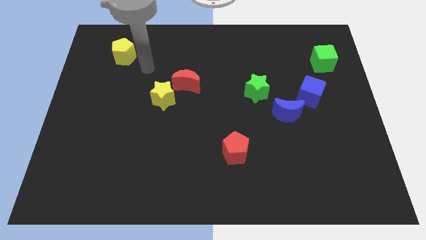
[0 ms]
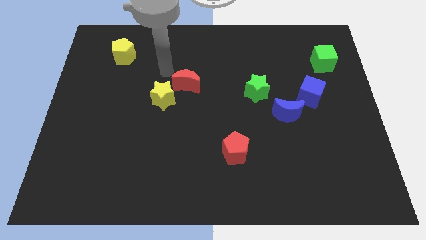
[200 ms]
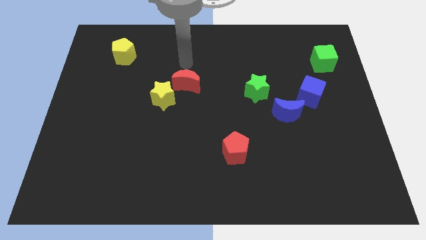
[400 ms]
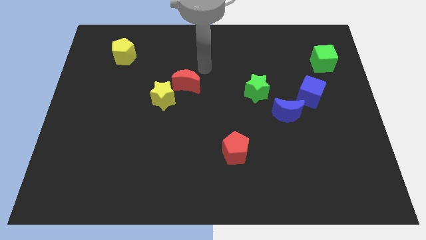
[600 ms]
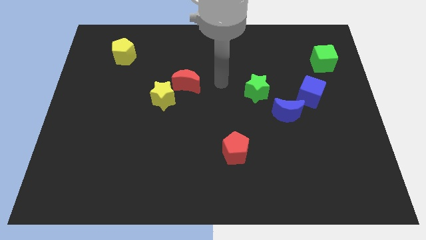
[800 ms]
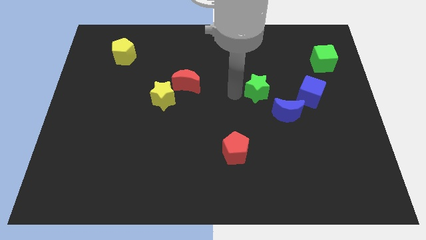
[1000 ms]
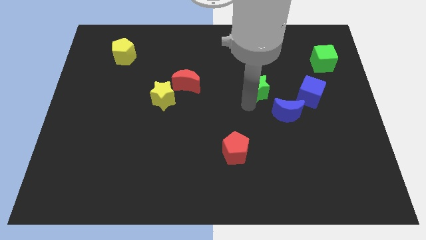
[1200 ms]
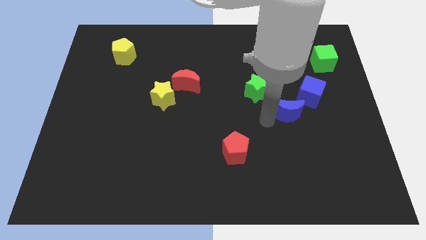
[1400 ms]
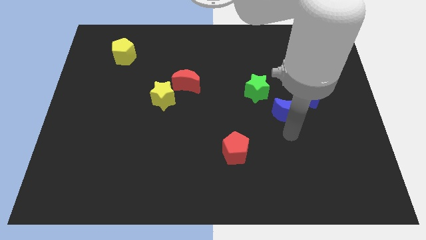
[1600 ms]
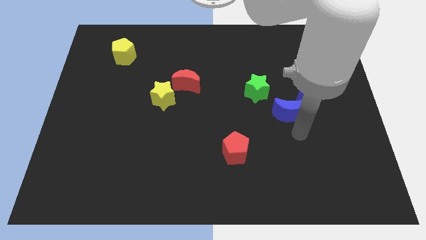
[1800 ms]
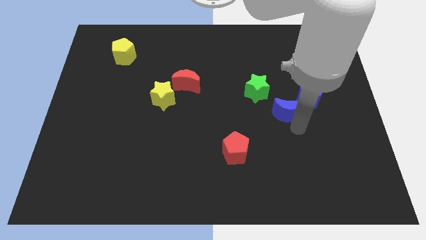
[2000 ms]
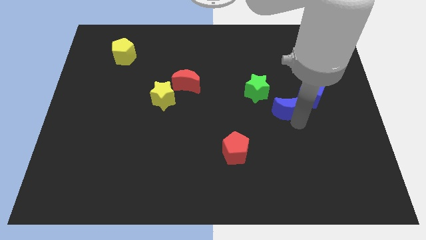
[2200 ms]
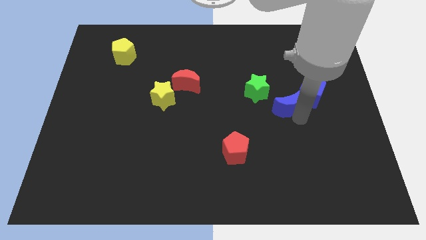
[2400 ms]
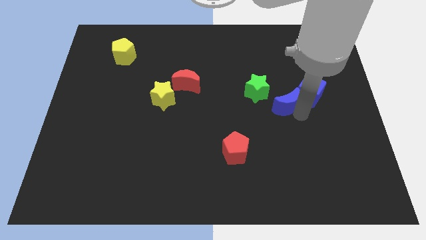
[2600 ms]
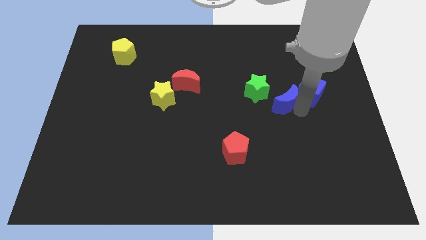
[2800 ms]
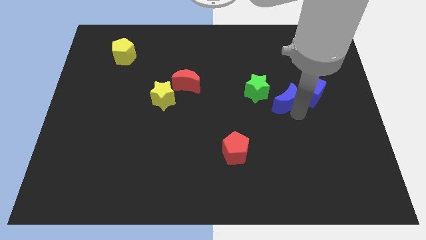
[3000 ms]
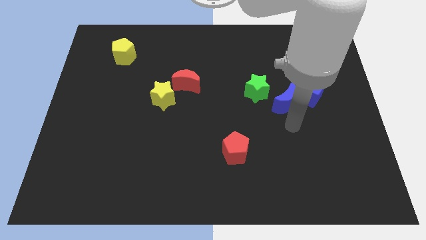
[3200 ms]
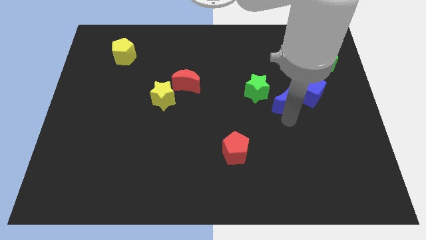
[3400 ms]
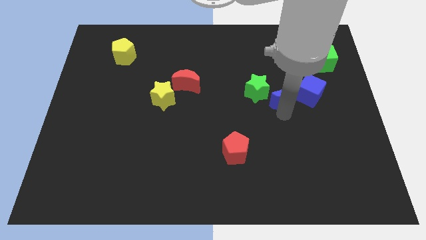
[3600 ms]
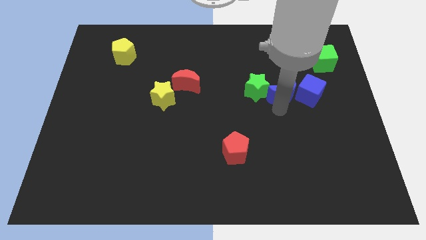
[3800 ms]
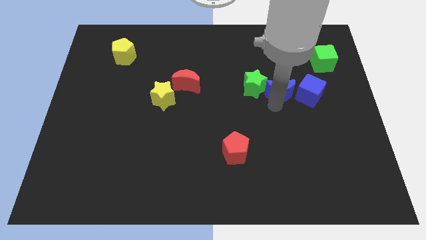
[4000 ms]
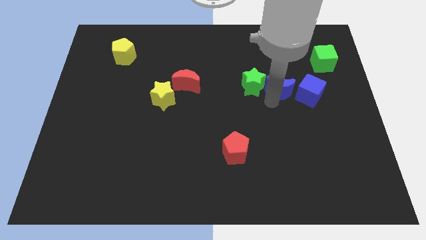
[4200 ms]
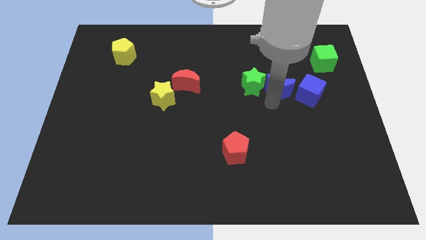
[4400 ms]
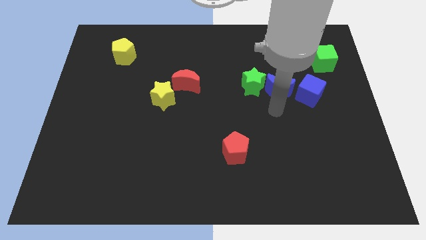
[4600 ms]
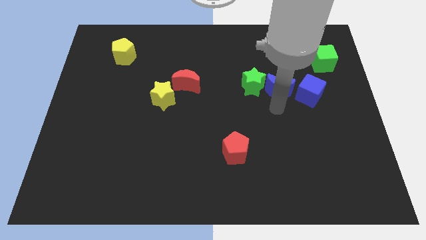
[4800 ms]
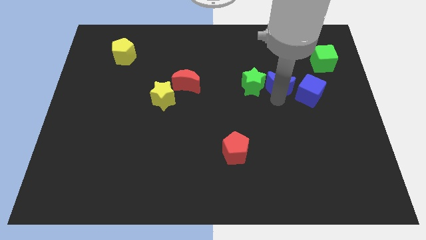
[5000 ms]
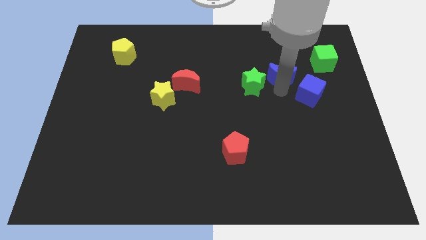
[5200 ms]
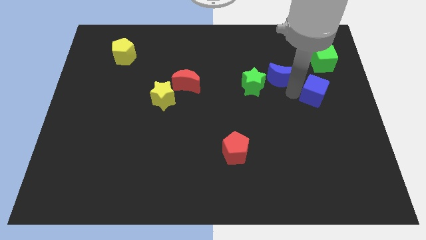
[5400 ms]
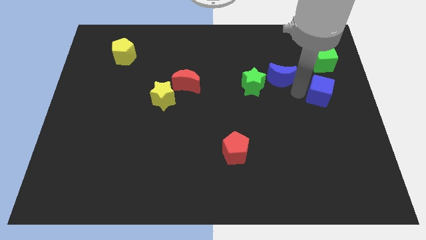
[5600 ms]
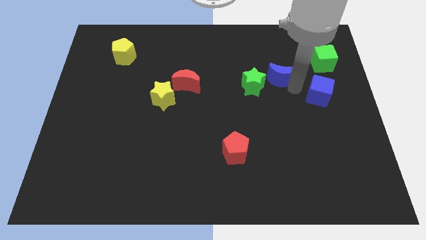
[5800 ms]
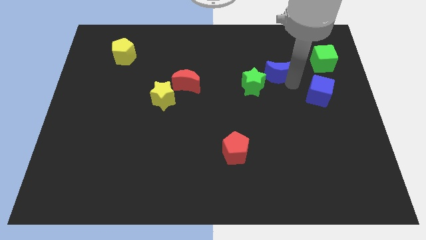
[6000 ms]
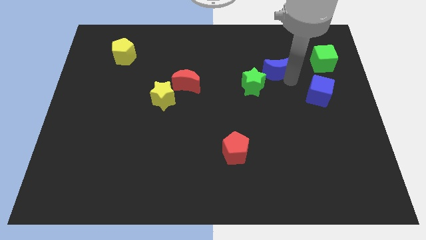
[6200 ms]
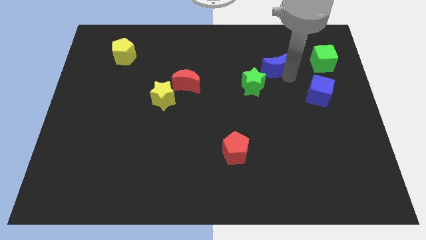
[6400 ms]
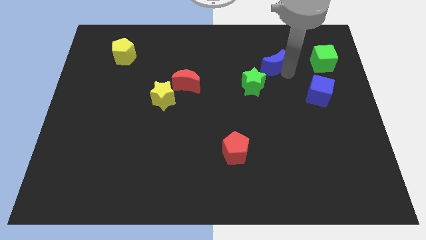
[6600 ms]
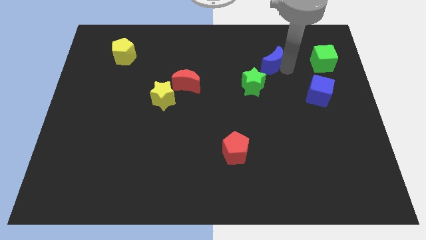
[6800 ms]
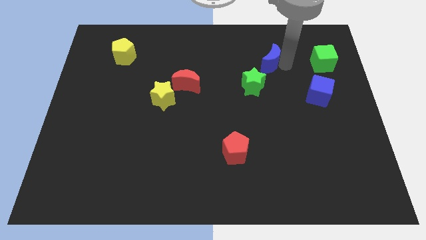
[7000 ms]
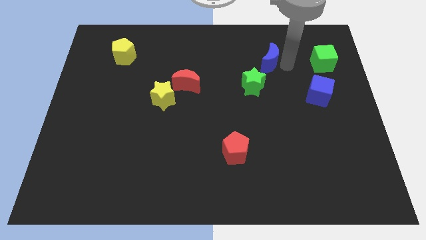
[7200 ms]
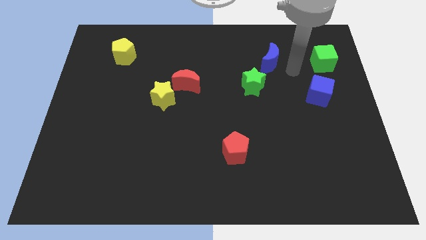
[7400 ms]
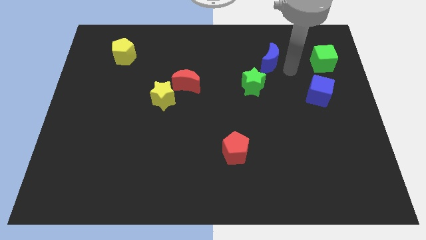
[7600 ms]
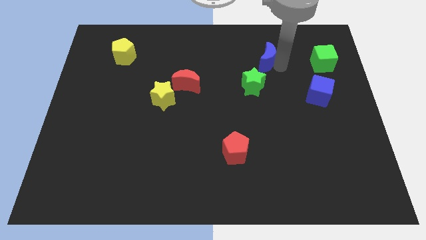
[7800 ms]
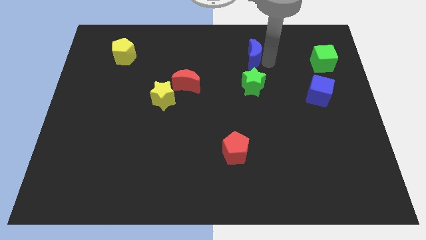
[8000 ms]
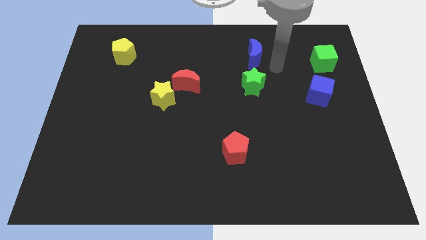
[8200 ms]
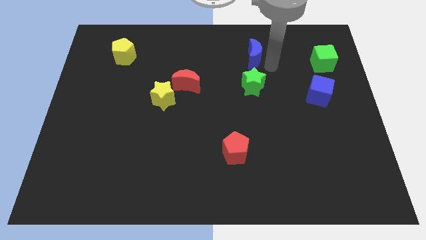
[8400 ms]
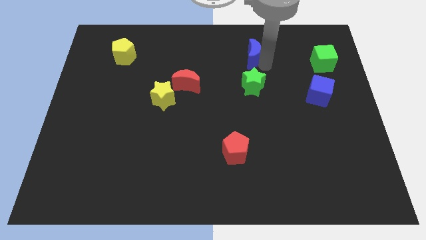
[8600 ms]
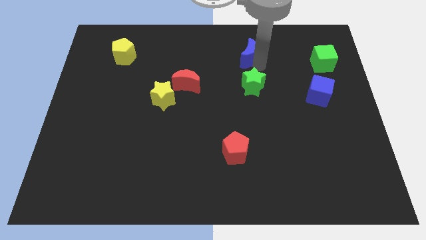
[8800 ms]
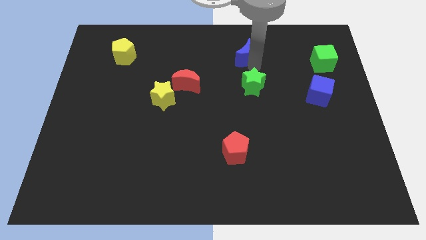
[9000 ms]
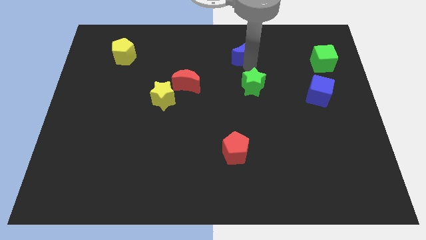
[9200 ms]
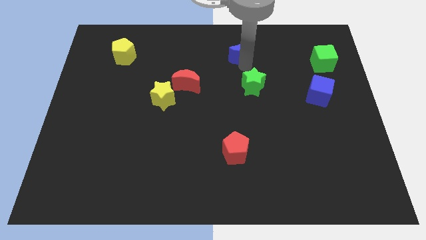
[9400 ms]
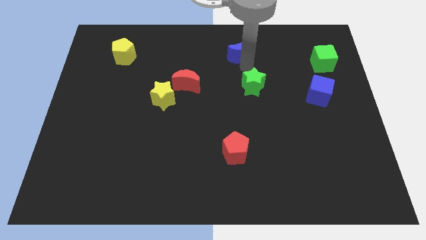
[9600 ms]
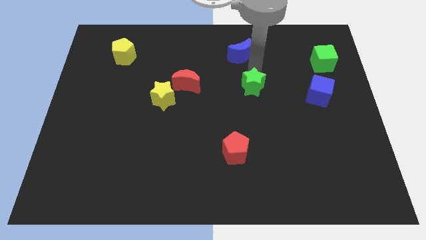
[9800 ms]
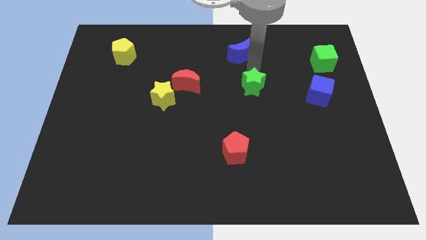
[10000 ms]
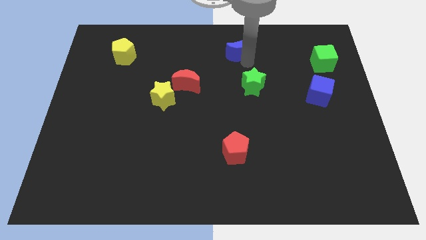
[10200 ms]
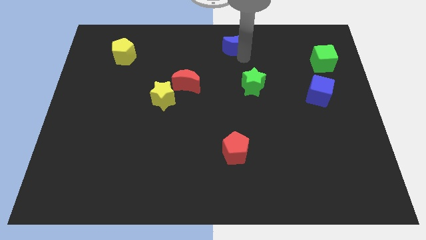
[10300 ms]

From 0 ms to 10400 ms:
put the blue moon to the top

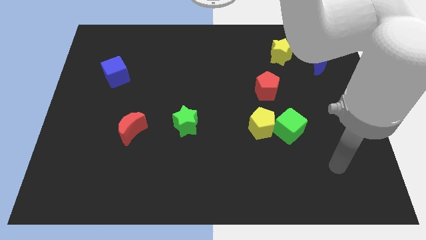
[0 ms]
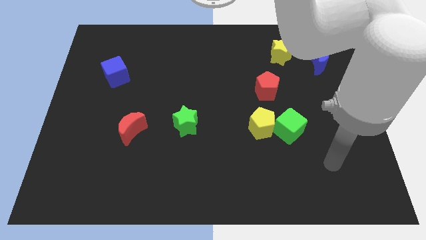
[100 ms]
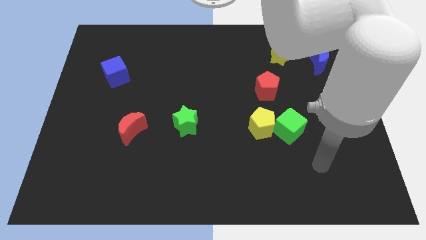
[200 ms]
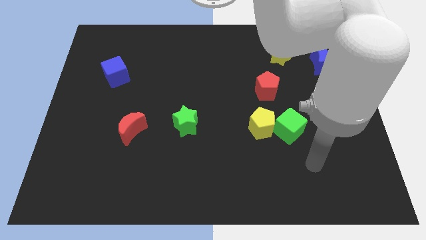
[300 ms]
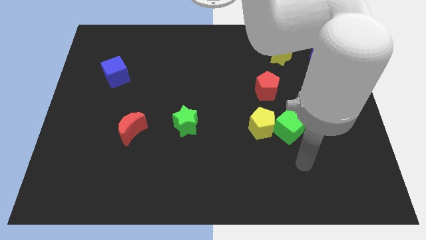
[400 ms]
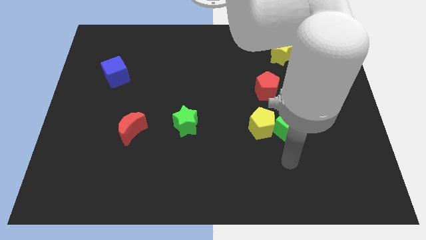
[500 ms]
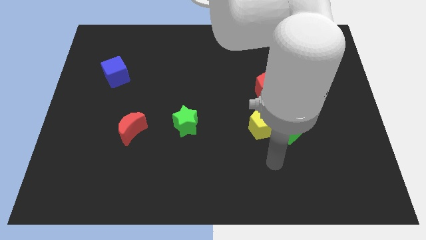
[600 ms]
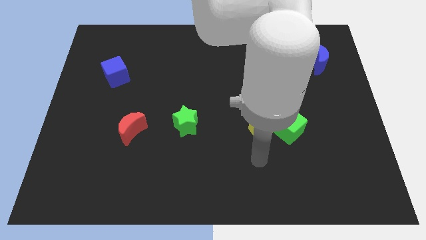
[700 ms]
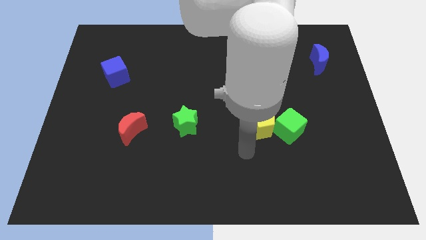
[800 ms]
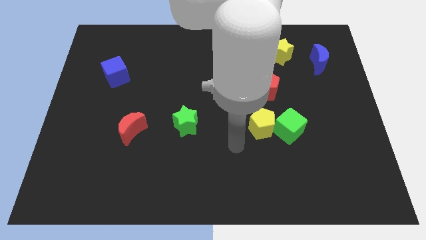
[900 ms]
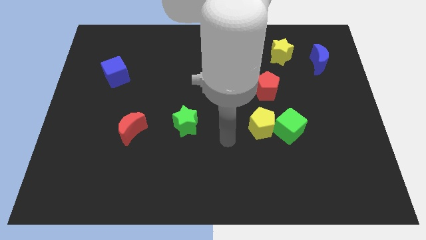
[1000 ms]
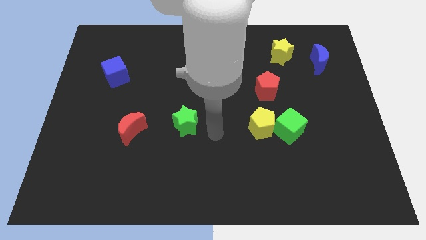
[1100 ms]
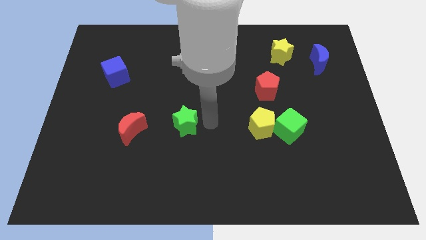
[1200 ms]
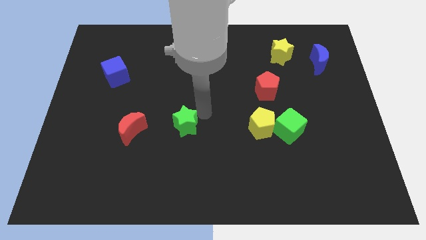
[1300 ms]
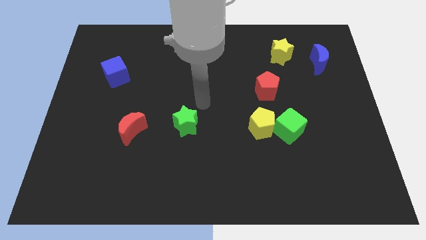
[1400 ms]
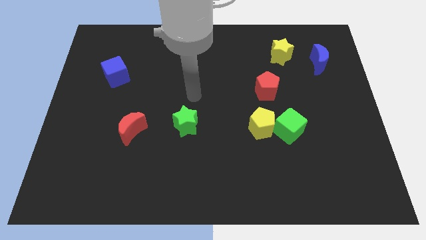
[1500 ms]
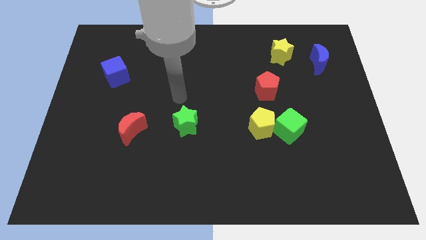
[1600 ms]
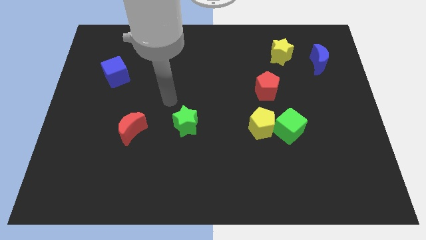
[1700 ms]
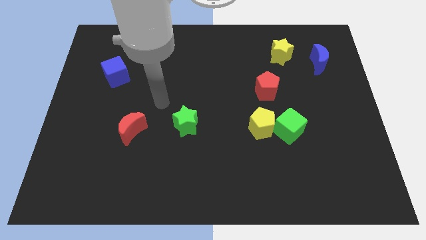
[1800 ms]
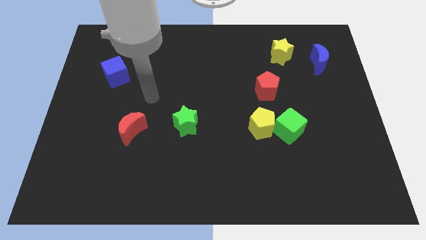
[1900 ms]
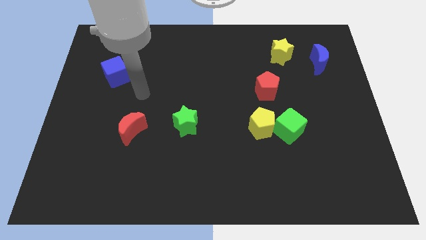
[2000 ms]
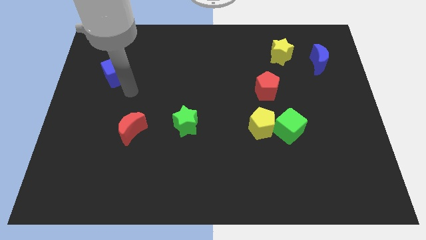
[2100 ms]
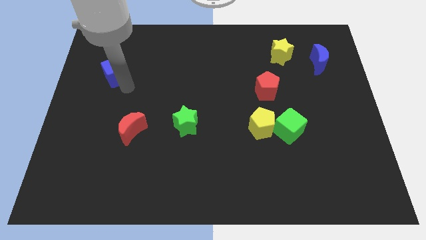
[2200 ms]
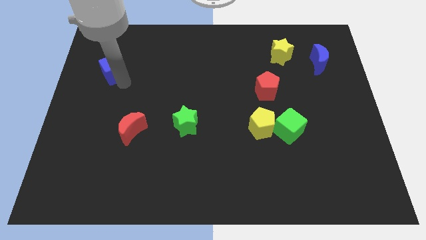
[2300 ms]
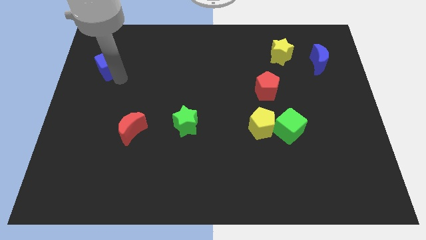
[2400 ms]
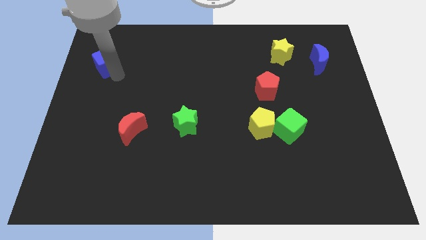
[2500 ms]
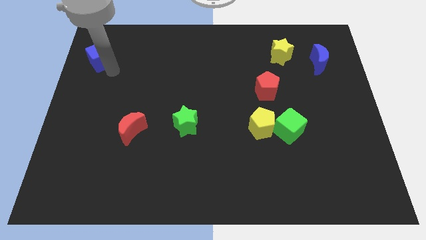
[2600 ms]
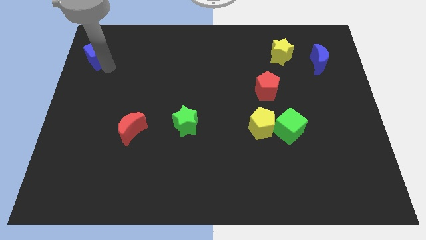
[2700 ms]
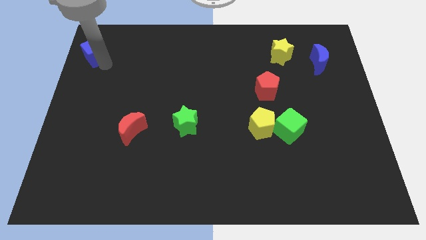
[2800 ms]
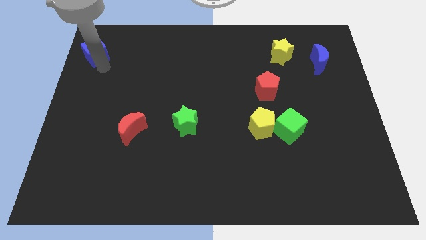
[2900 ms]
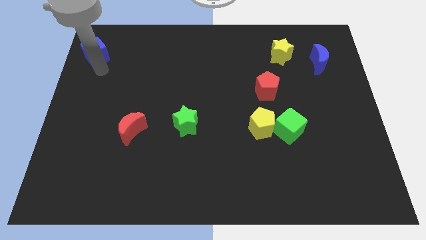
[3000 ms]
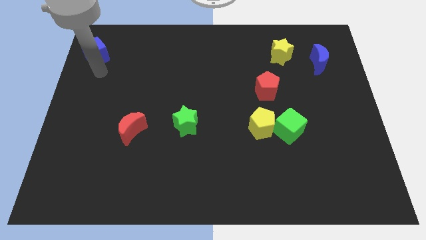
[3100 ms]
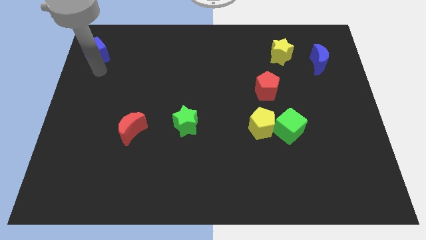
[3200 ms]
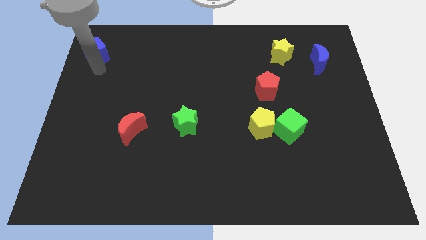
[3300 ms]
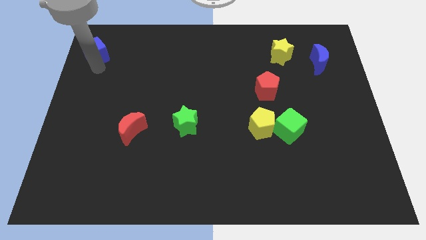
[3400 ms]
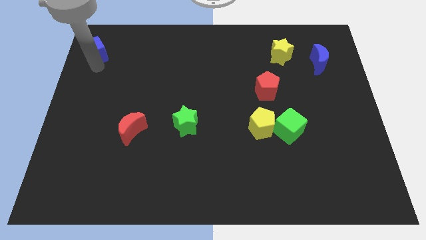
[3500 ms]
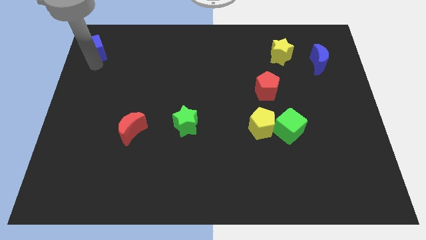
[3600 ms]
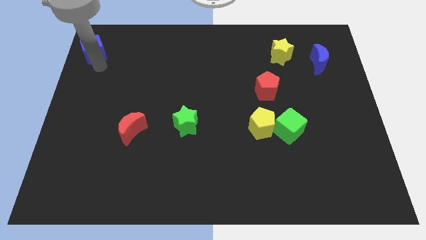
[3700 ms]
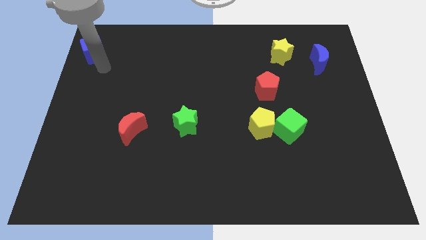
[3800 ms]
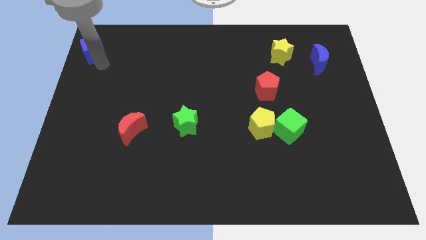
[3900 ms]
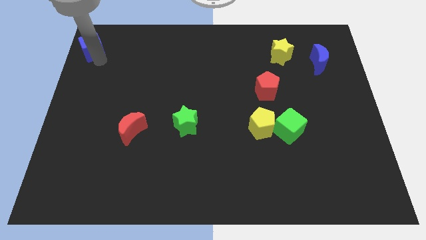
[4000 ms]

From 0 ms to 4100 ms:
slide the blue cube to the upper left corner
